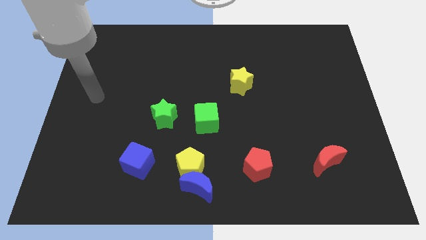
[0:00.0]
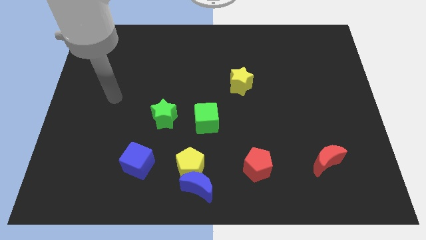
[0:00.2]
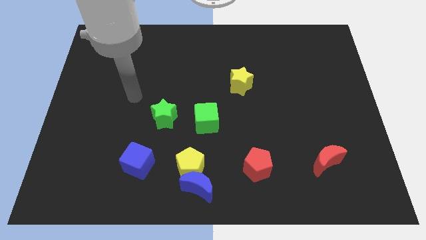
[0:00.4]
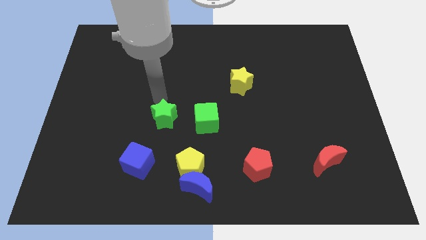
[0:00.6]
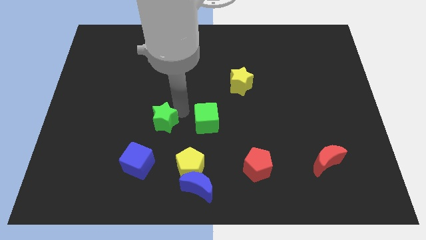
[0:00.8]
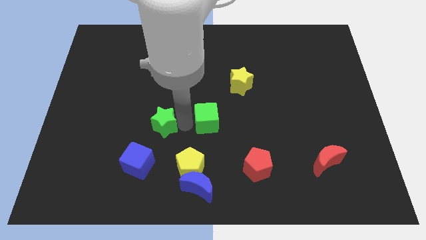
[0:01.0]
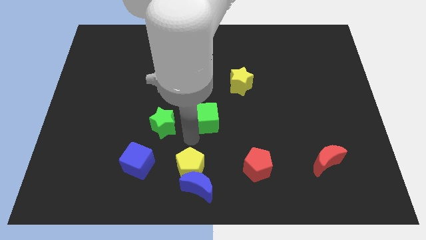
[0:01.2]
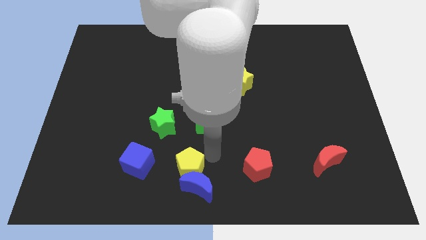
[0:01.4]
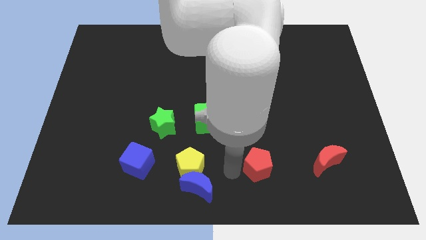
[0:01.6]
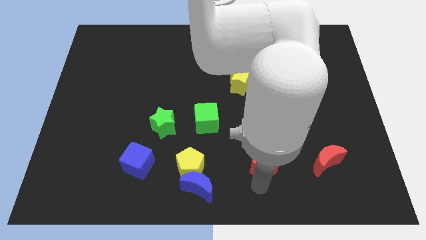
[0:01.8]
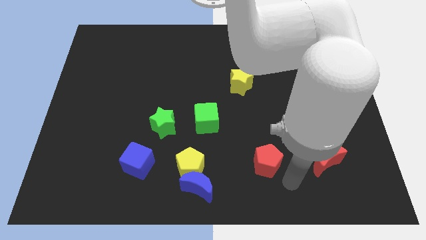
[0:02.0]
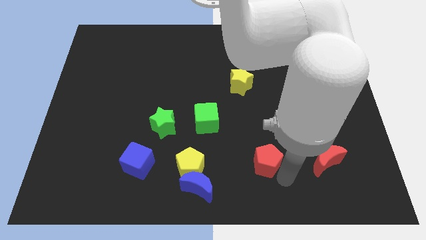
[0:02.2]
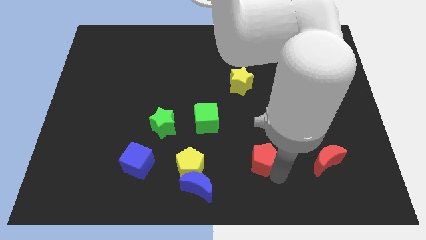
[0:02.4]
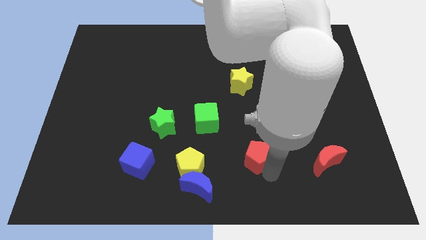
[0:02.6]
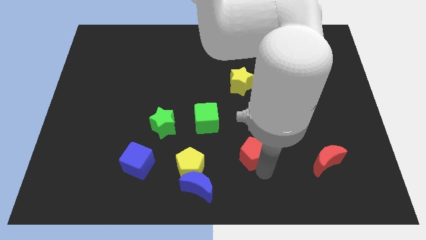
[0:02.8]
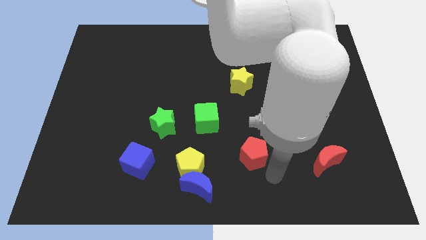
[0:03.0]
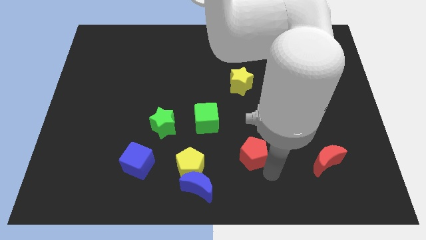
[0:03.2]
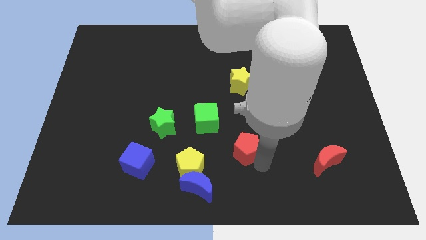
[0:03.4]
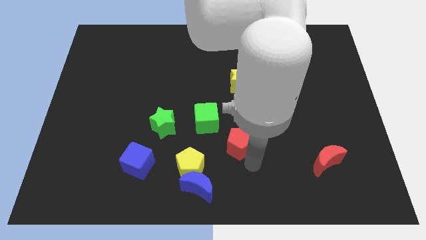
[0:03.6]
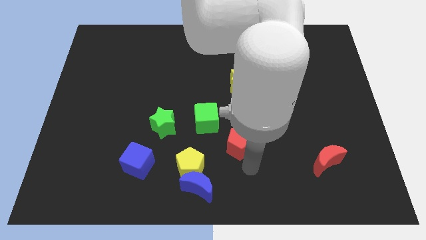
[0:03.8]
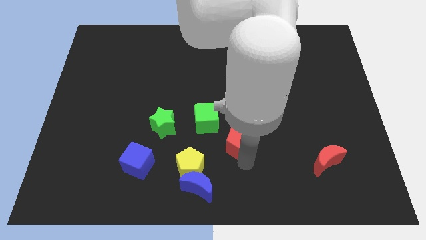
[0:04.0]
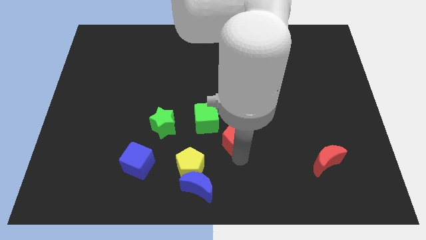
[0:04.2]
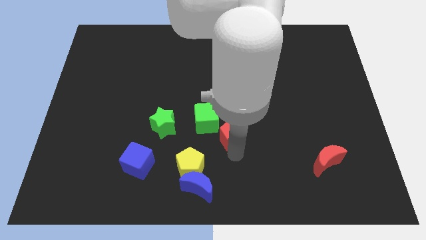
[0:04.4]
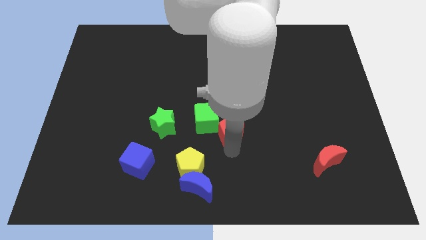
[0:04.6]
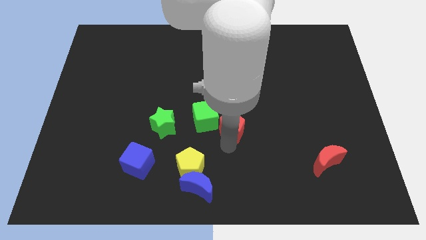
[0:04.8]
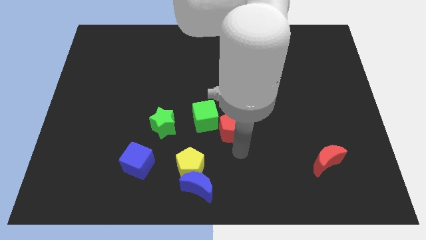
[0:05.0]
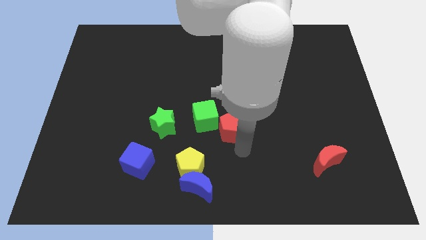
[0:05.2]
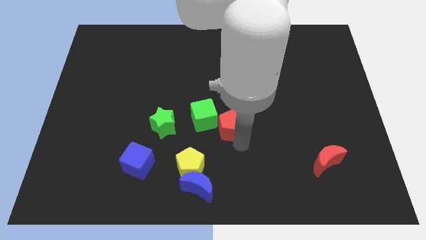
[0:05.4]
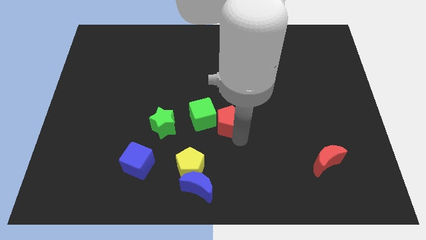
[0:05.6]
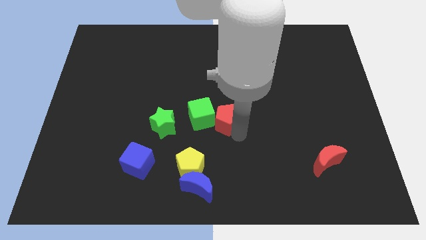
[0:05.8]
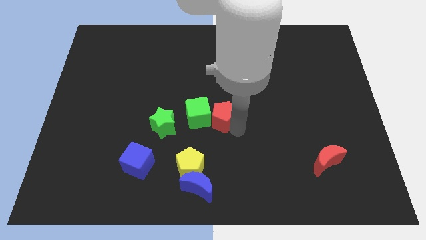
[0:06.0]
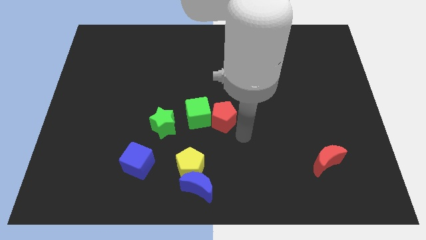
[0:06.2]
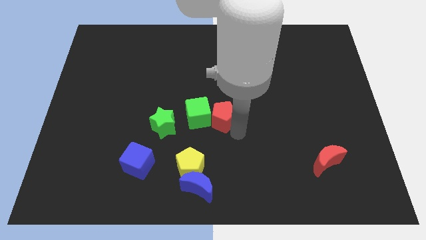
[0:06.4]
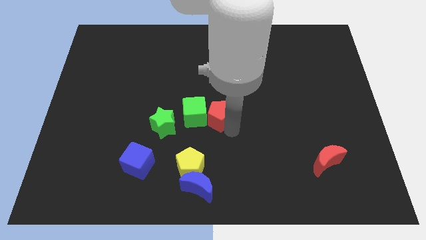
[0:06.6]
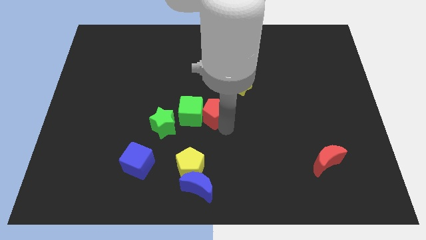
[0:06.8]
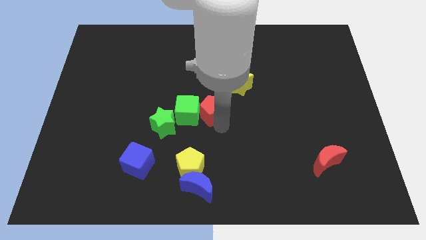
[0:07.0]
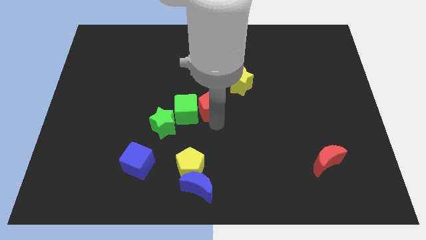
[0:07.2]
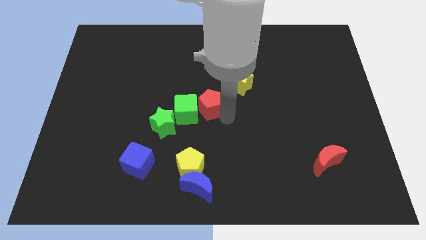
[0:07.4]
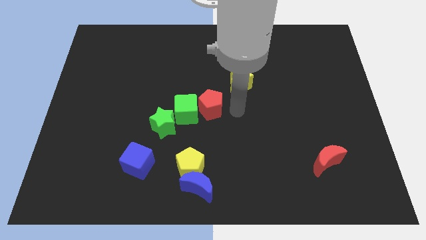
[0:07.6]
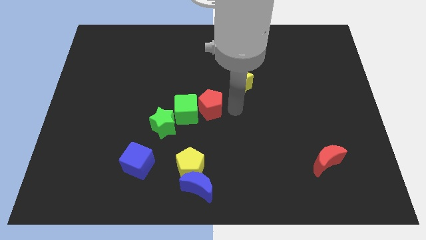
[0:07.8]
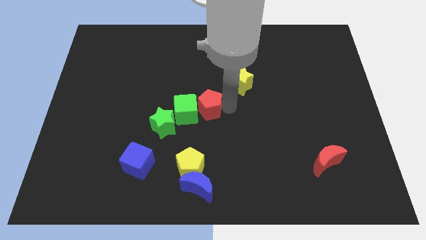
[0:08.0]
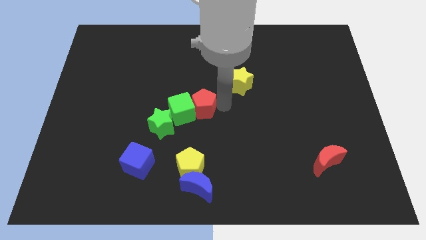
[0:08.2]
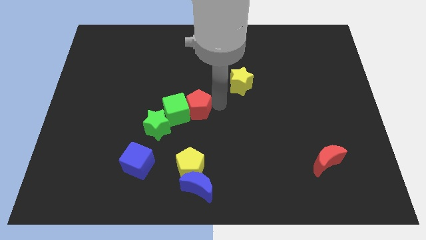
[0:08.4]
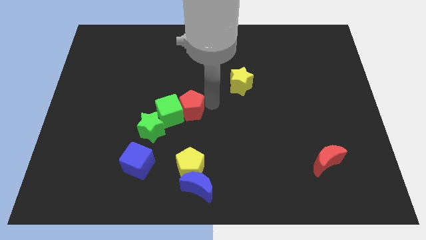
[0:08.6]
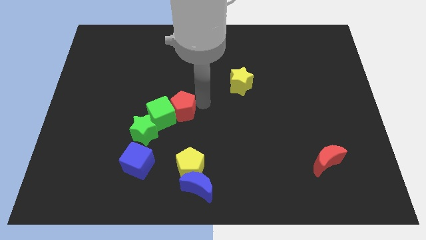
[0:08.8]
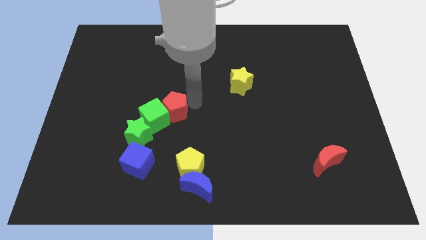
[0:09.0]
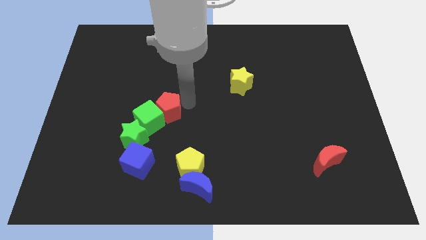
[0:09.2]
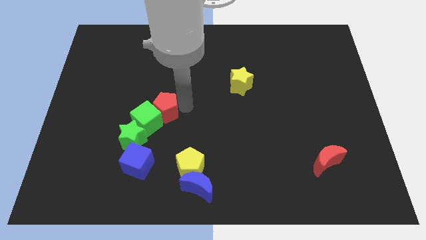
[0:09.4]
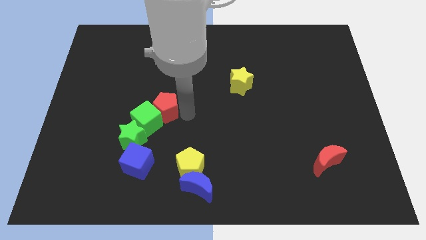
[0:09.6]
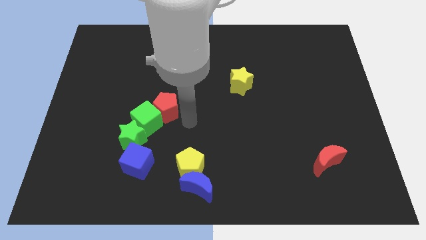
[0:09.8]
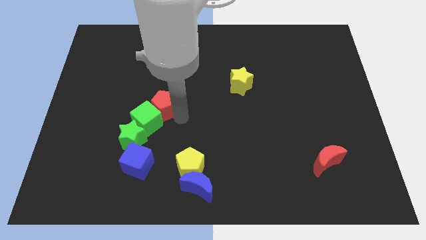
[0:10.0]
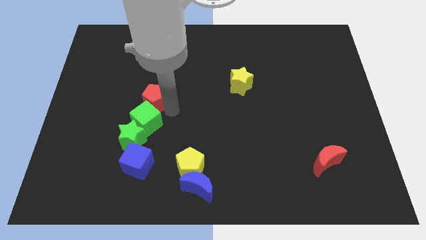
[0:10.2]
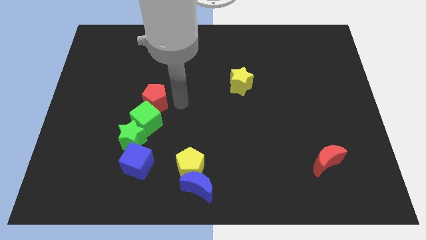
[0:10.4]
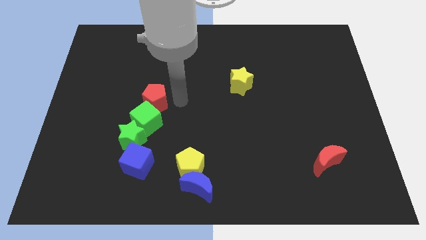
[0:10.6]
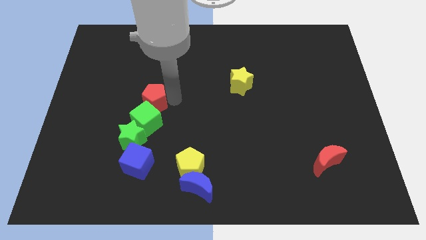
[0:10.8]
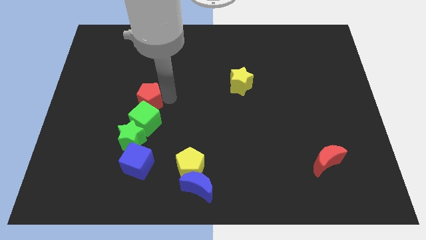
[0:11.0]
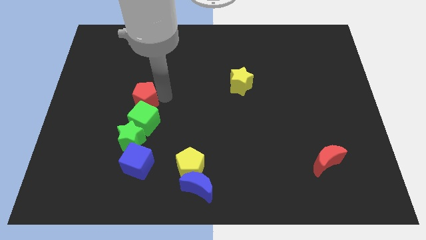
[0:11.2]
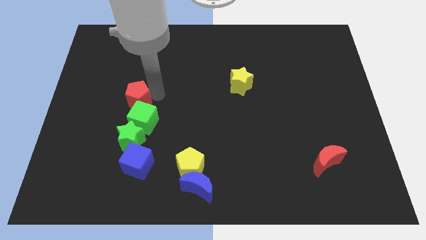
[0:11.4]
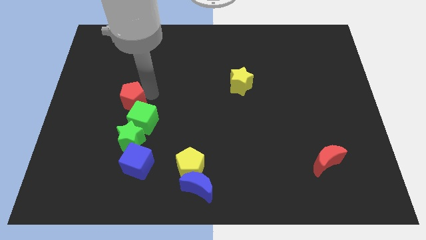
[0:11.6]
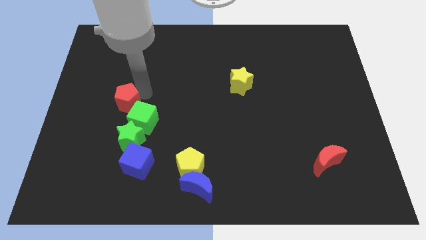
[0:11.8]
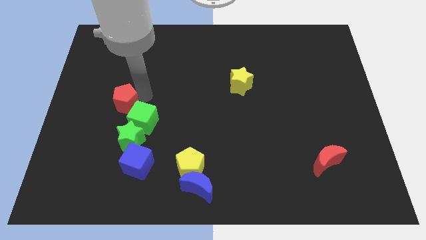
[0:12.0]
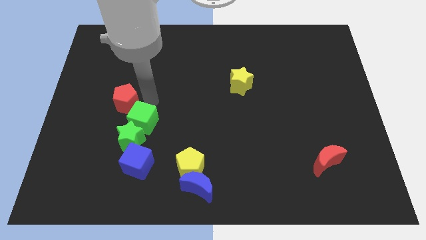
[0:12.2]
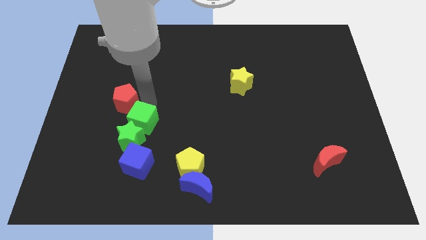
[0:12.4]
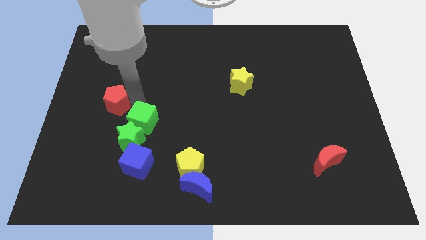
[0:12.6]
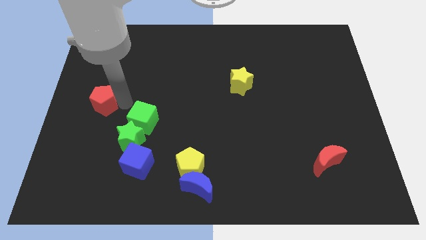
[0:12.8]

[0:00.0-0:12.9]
move the red pentagon to the center left

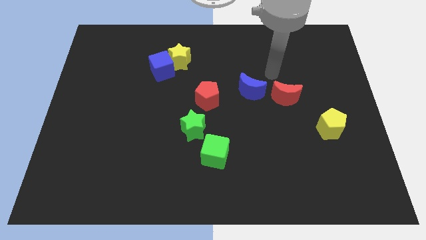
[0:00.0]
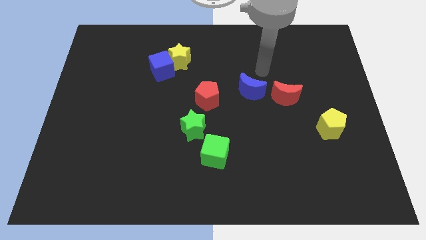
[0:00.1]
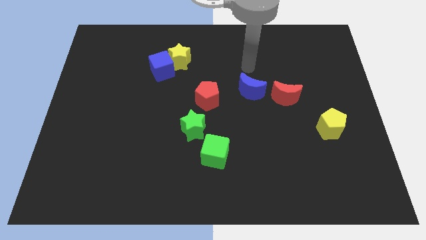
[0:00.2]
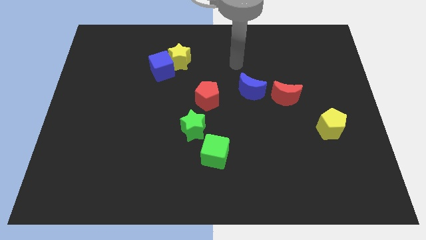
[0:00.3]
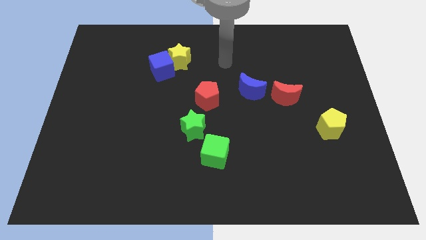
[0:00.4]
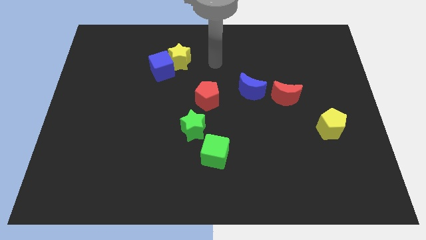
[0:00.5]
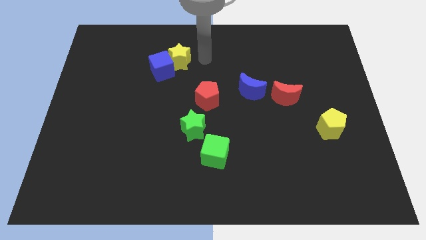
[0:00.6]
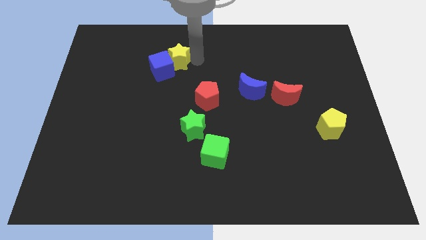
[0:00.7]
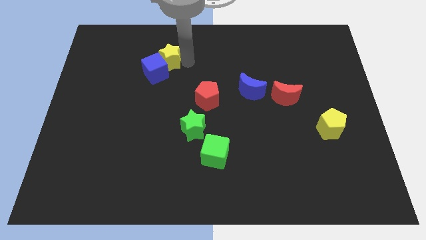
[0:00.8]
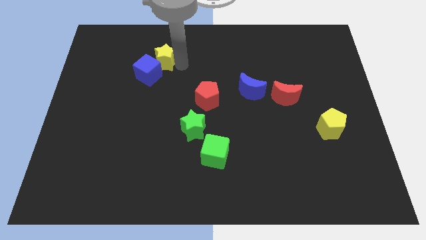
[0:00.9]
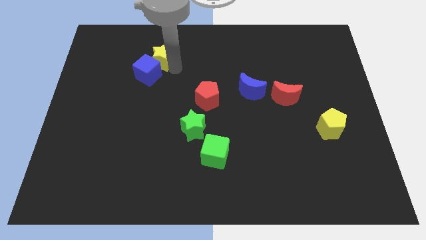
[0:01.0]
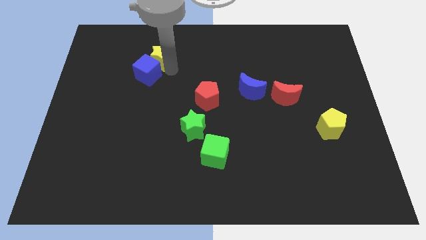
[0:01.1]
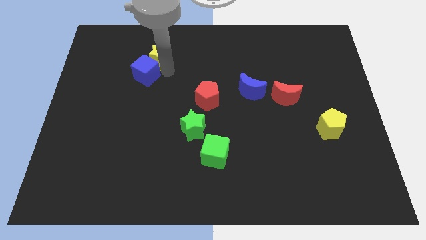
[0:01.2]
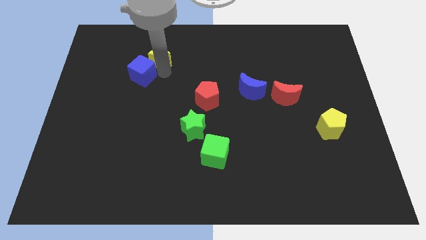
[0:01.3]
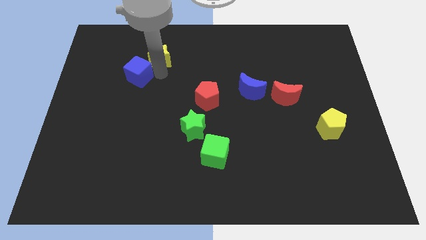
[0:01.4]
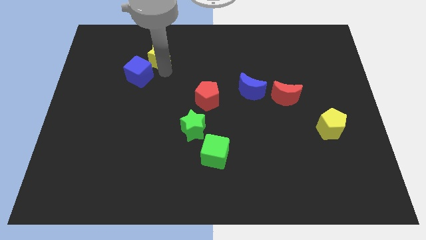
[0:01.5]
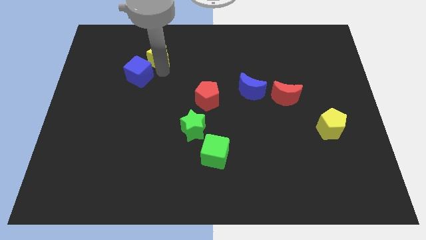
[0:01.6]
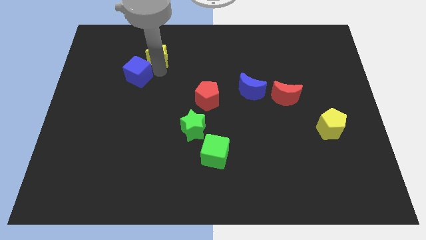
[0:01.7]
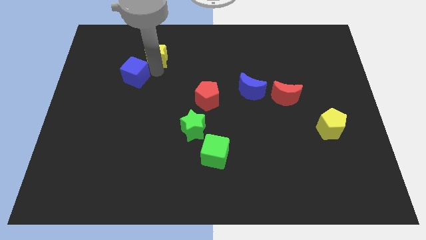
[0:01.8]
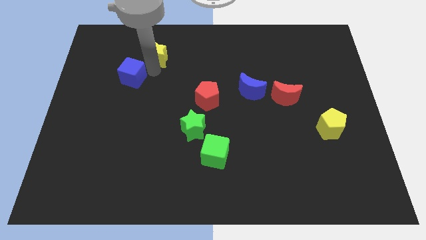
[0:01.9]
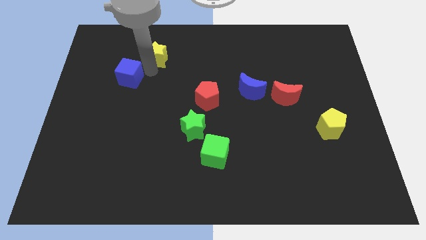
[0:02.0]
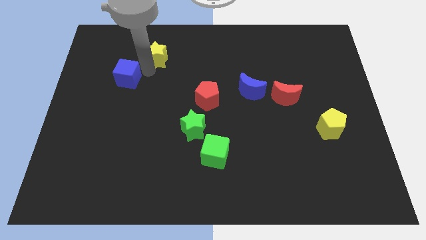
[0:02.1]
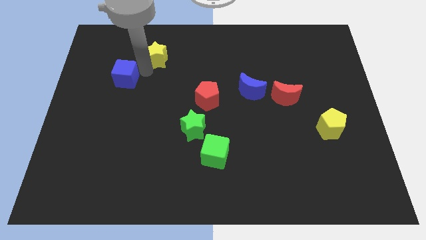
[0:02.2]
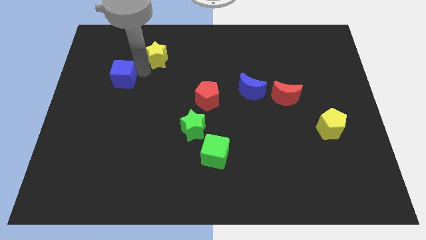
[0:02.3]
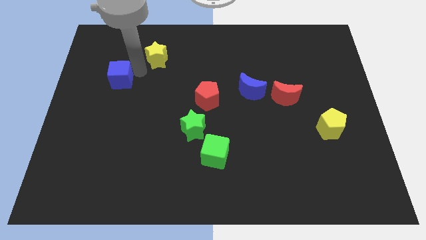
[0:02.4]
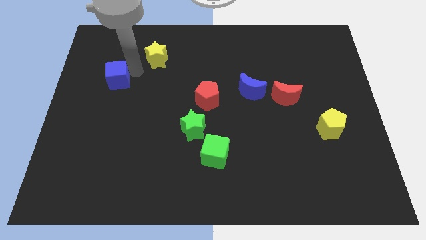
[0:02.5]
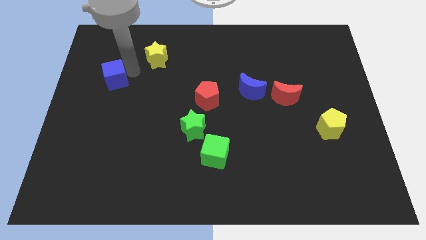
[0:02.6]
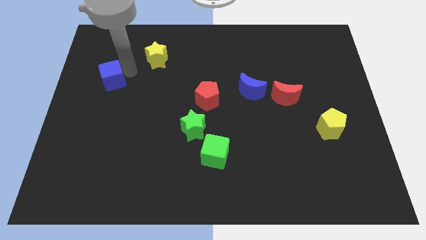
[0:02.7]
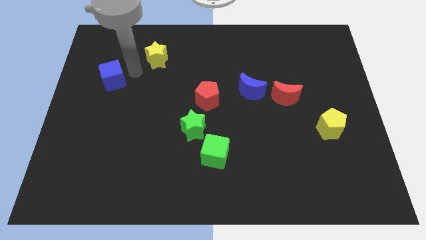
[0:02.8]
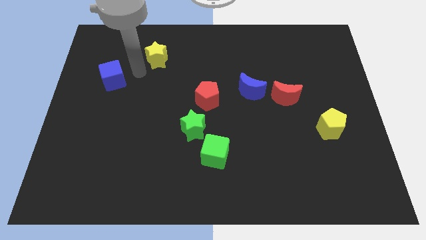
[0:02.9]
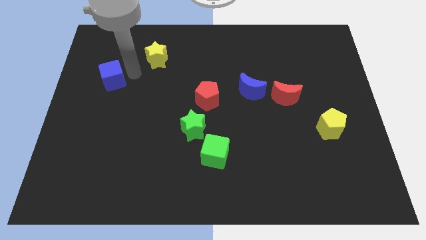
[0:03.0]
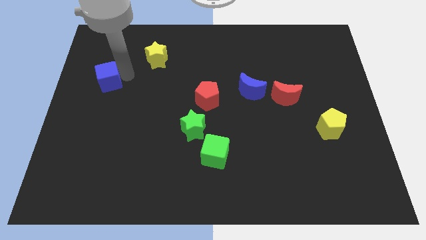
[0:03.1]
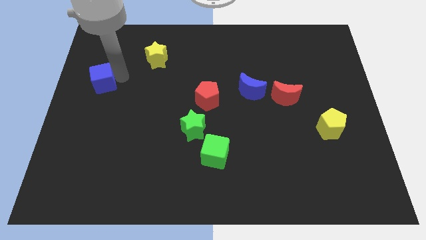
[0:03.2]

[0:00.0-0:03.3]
push the blue cube to the center left
